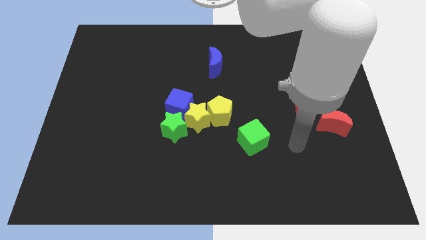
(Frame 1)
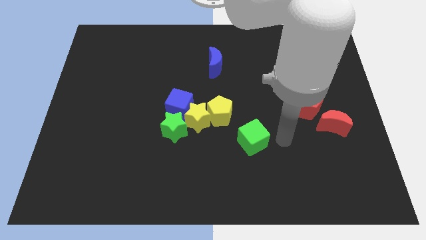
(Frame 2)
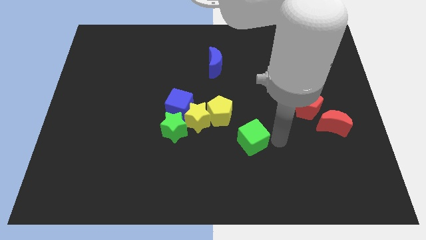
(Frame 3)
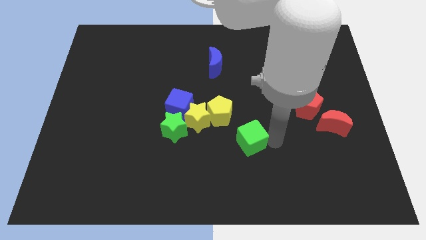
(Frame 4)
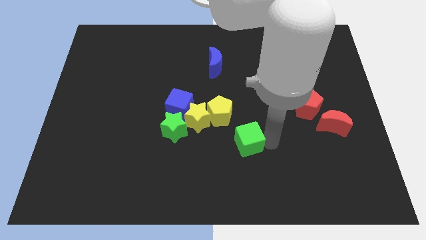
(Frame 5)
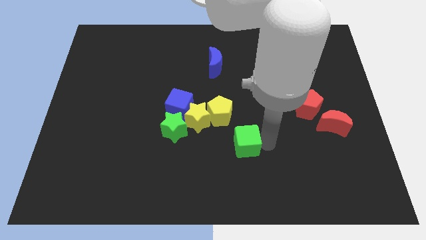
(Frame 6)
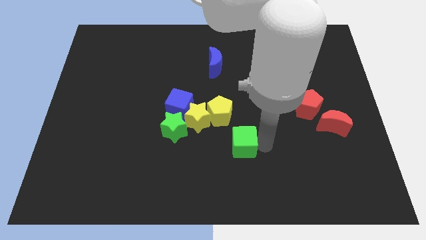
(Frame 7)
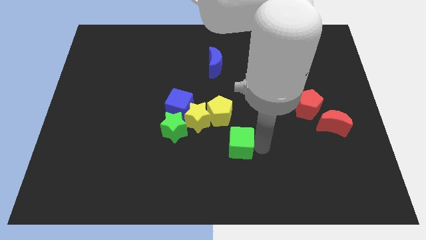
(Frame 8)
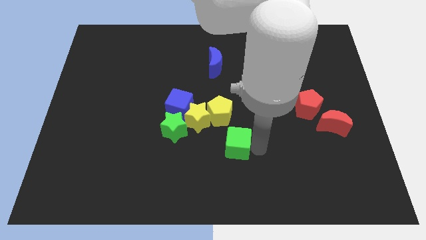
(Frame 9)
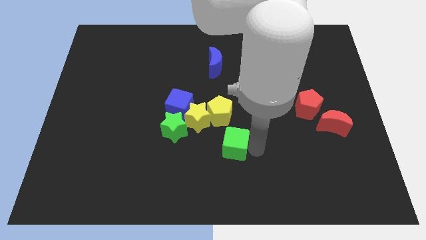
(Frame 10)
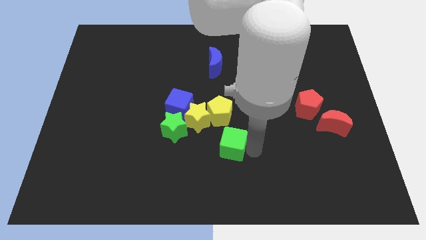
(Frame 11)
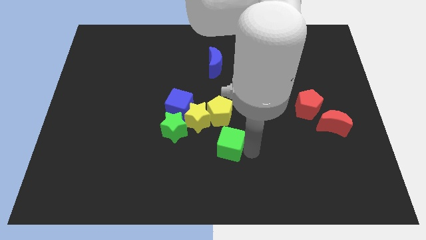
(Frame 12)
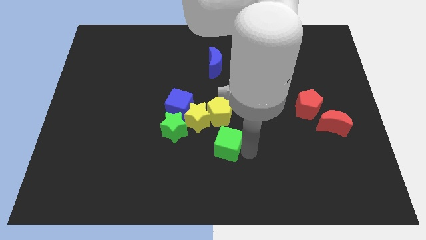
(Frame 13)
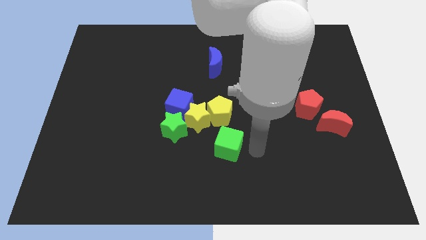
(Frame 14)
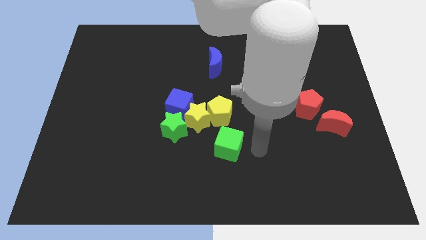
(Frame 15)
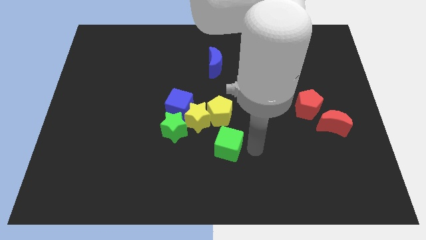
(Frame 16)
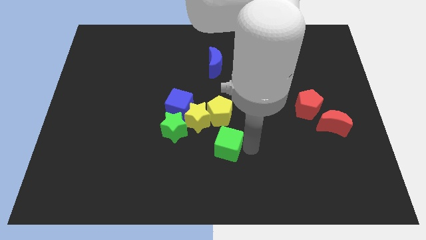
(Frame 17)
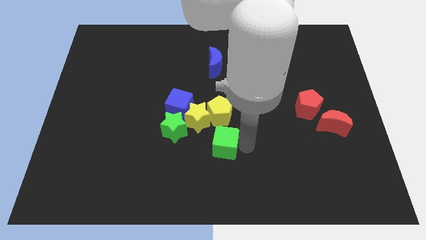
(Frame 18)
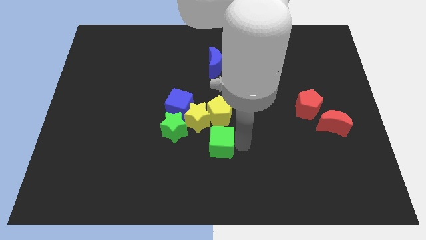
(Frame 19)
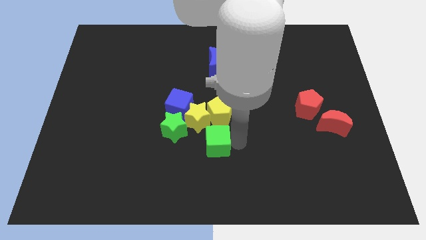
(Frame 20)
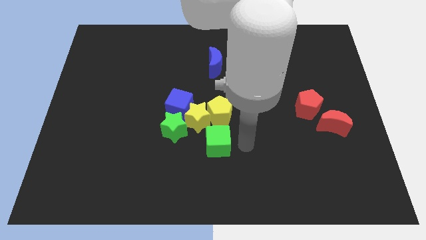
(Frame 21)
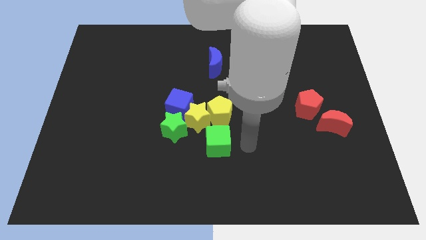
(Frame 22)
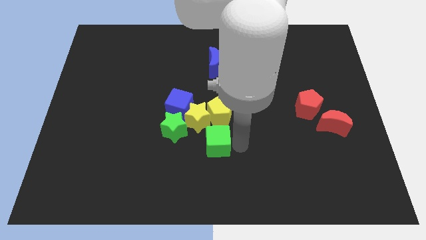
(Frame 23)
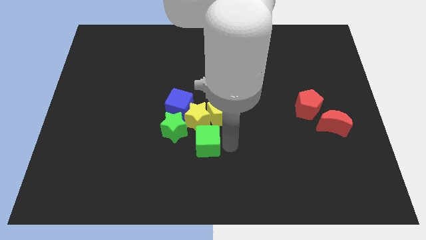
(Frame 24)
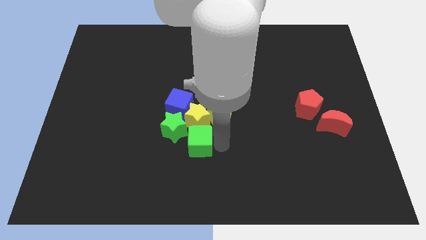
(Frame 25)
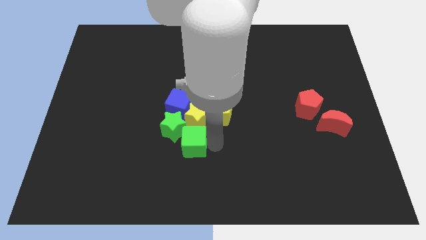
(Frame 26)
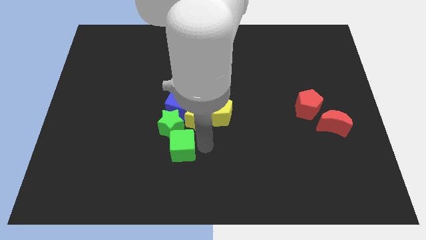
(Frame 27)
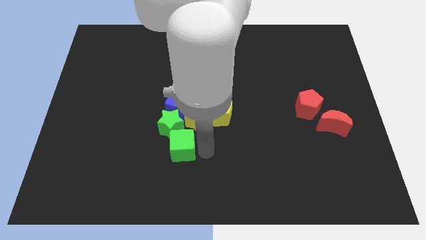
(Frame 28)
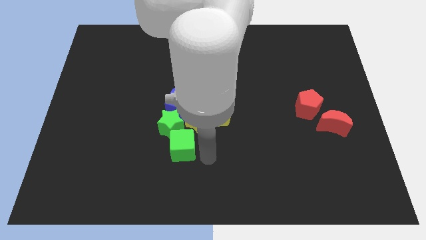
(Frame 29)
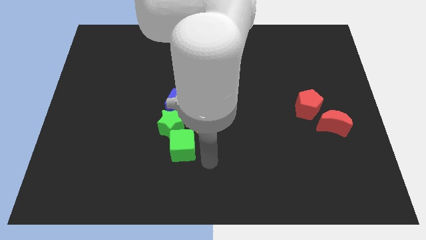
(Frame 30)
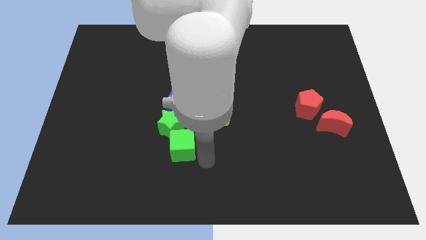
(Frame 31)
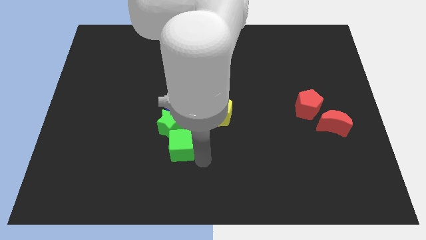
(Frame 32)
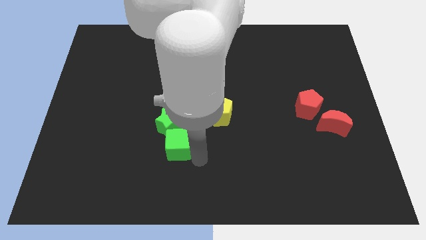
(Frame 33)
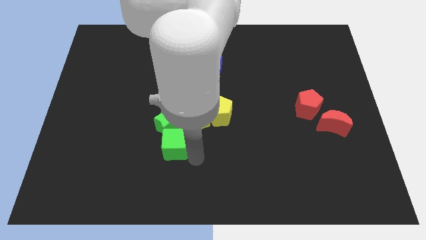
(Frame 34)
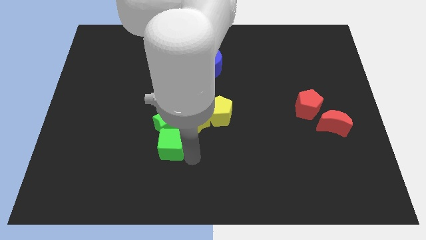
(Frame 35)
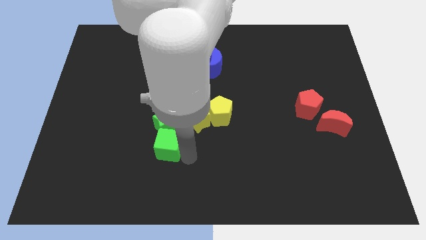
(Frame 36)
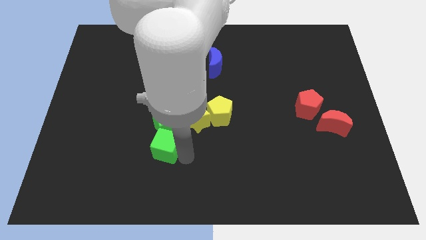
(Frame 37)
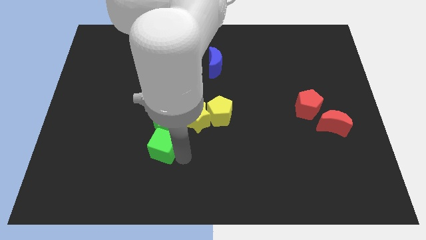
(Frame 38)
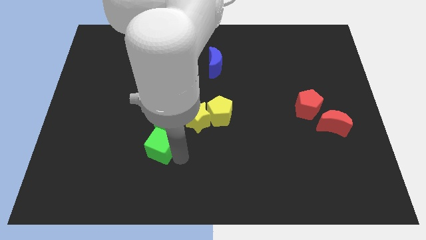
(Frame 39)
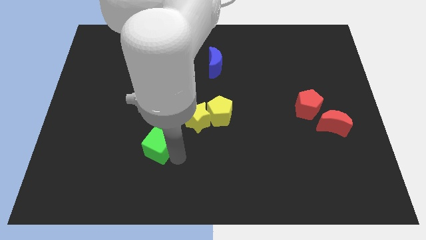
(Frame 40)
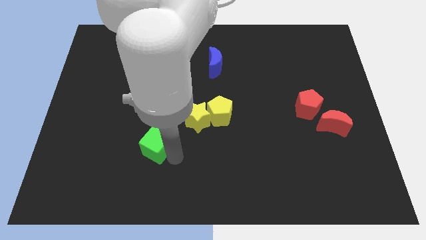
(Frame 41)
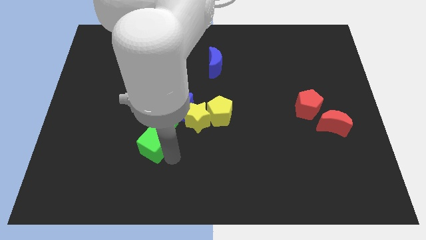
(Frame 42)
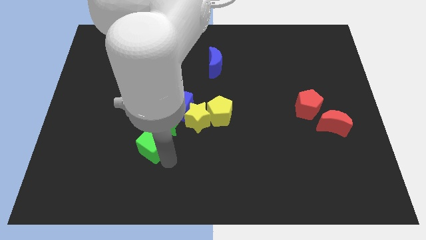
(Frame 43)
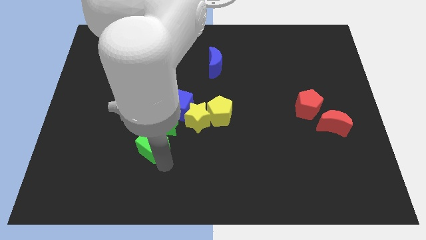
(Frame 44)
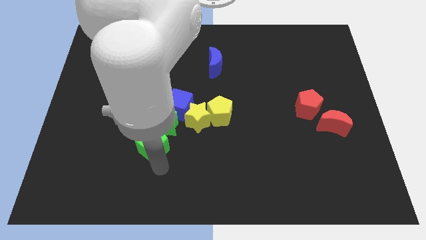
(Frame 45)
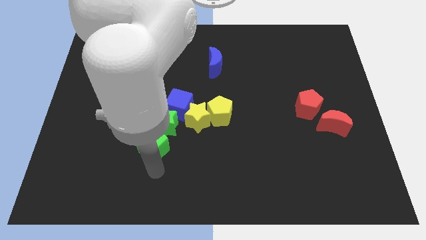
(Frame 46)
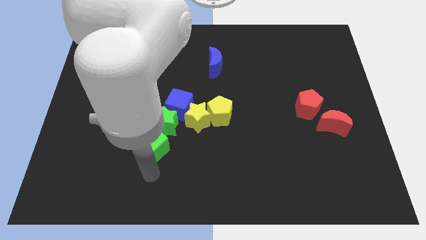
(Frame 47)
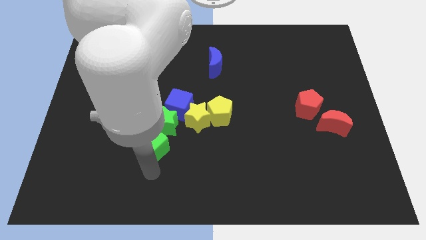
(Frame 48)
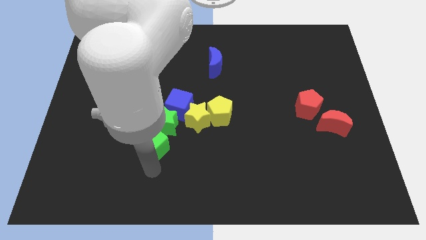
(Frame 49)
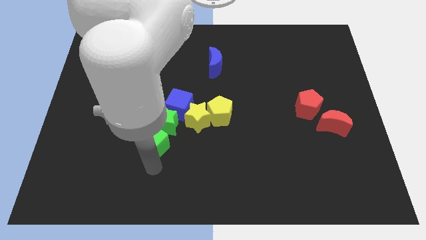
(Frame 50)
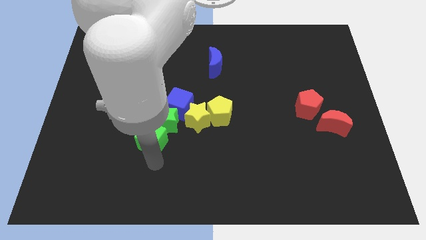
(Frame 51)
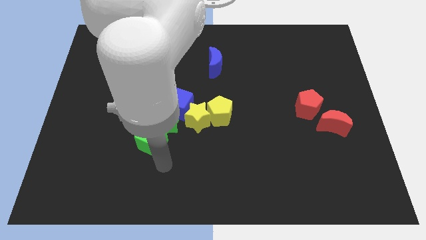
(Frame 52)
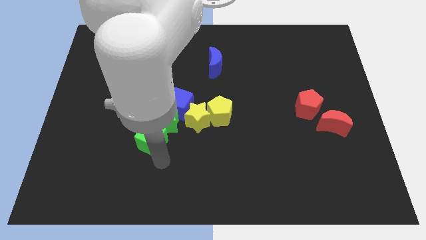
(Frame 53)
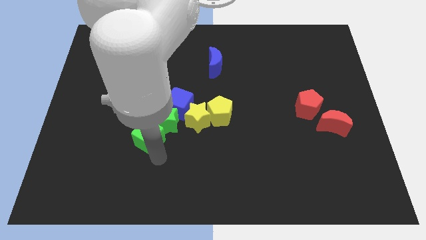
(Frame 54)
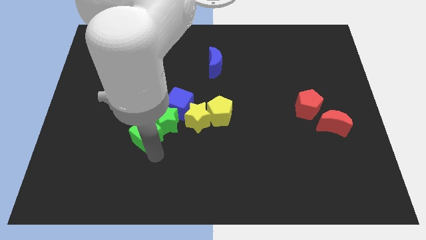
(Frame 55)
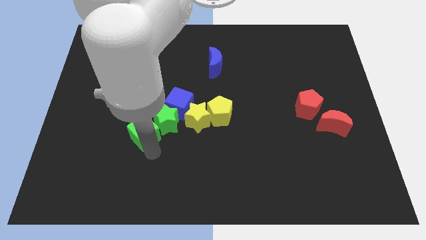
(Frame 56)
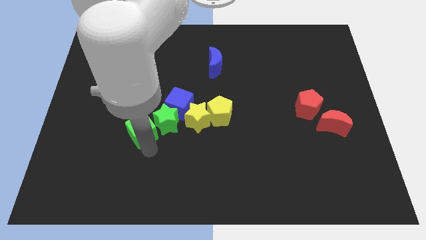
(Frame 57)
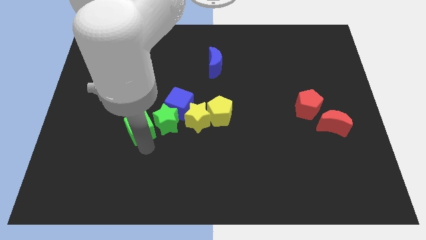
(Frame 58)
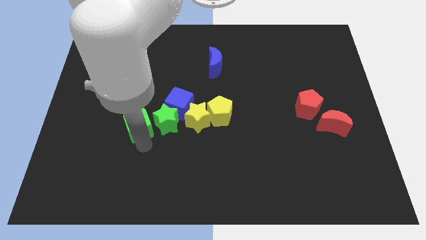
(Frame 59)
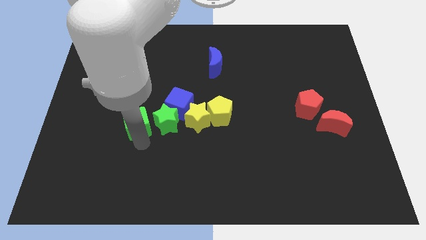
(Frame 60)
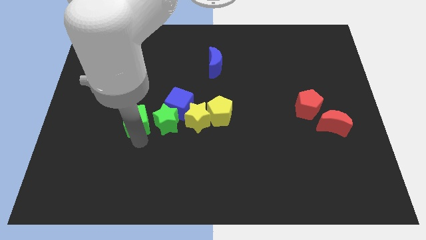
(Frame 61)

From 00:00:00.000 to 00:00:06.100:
put the green cube to the left of the blue cube

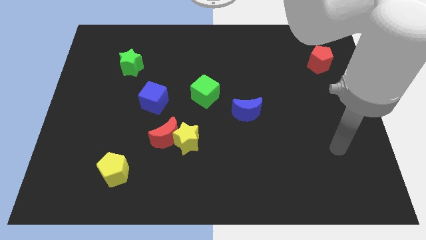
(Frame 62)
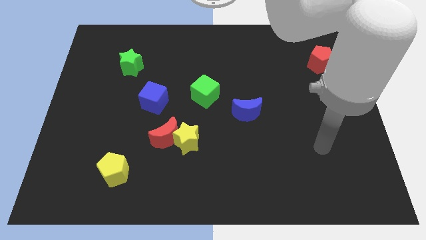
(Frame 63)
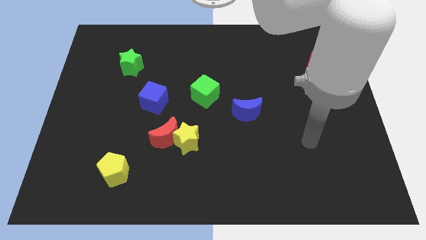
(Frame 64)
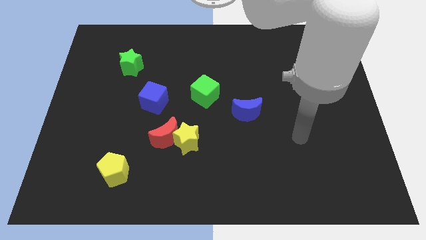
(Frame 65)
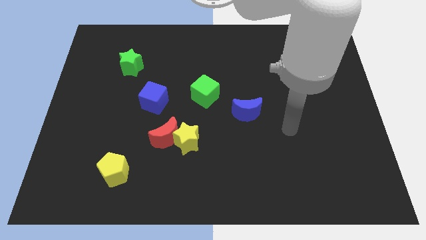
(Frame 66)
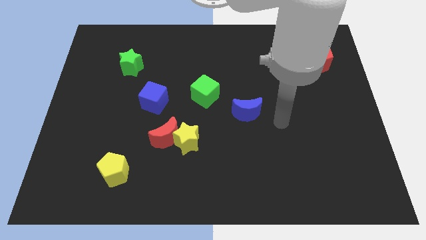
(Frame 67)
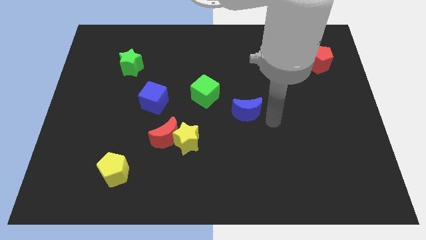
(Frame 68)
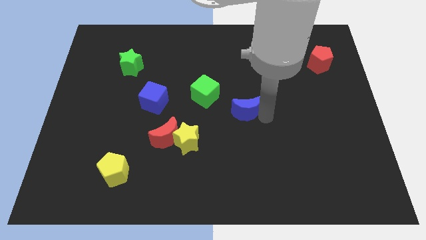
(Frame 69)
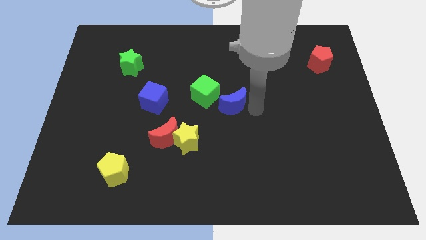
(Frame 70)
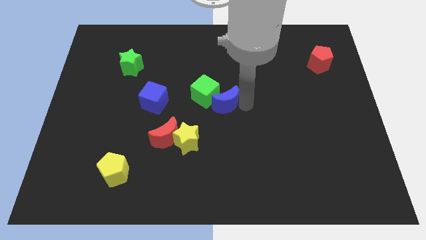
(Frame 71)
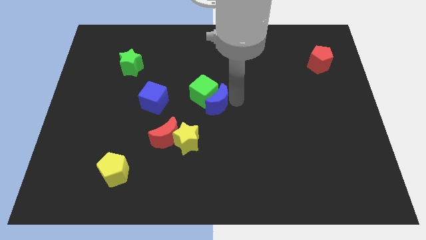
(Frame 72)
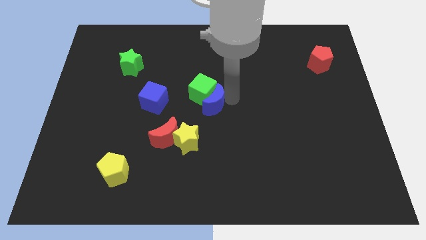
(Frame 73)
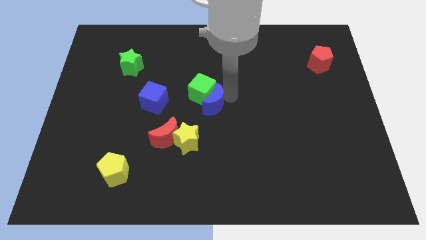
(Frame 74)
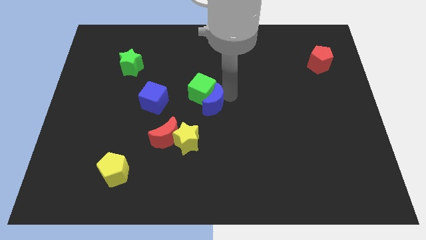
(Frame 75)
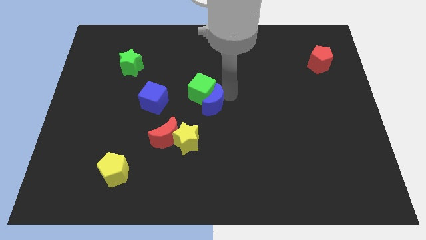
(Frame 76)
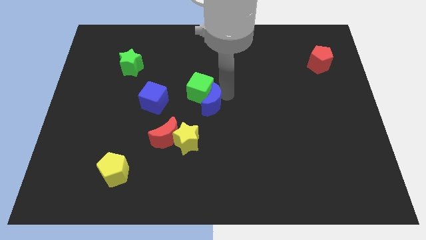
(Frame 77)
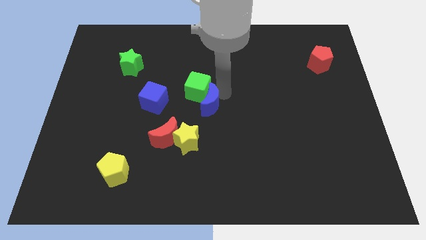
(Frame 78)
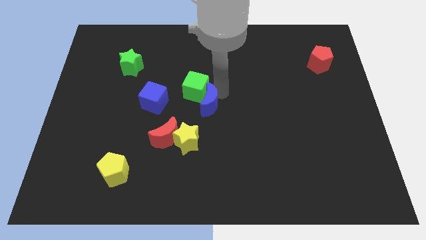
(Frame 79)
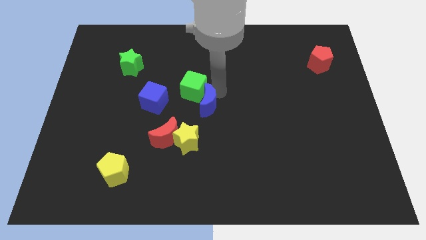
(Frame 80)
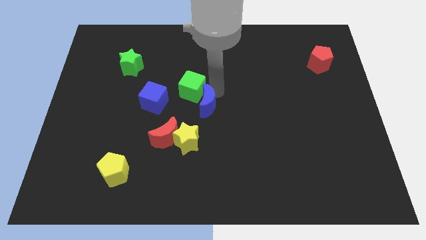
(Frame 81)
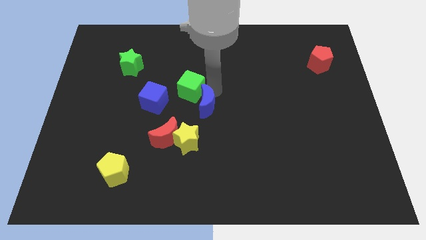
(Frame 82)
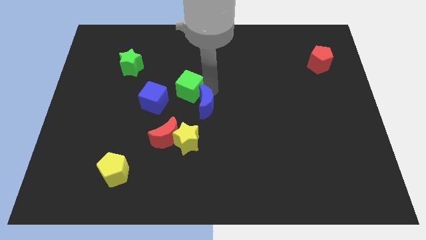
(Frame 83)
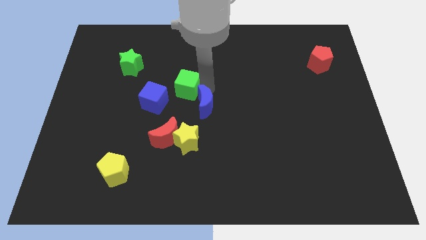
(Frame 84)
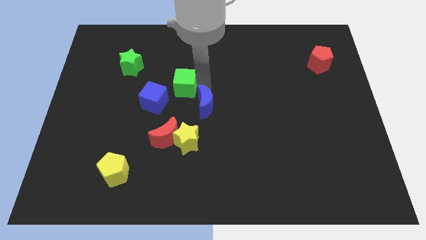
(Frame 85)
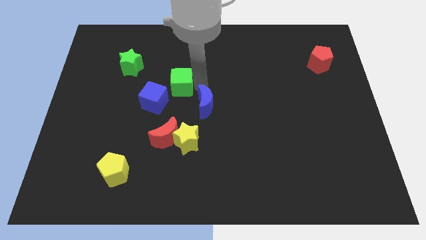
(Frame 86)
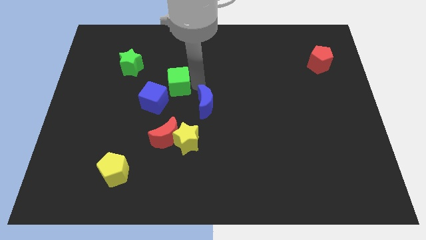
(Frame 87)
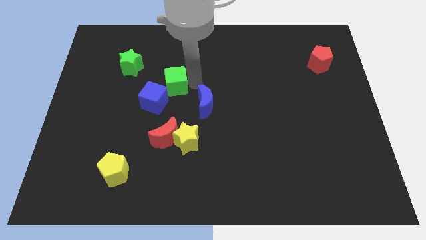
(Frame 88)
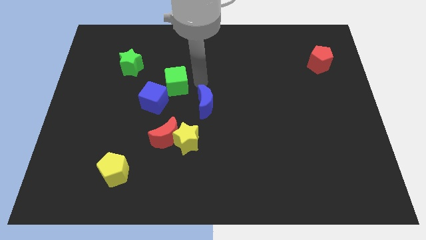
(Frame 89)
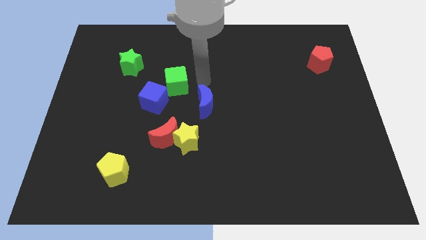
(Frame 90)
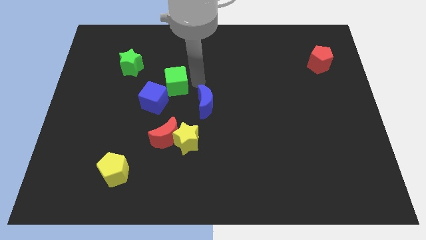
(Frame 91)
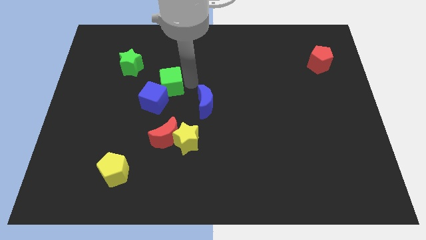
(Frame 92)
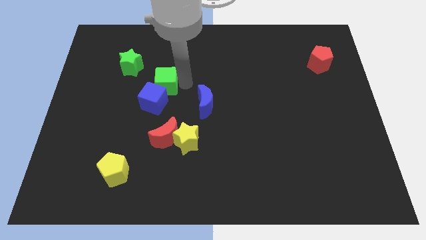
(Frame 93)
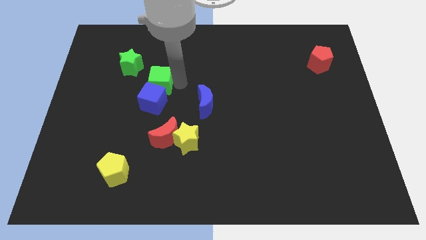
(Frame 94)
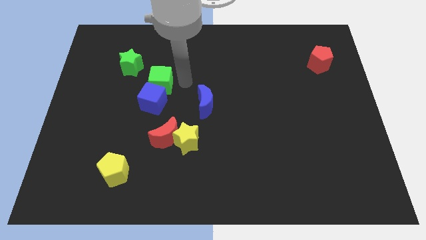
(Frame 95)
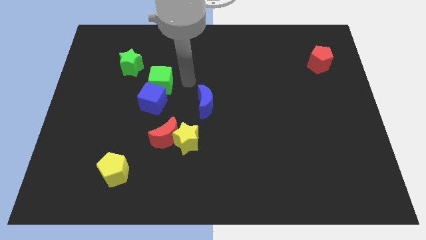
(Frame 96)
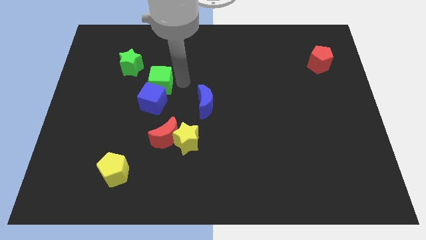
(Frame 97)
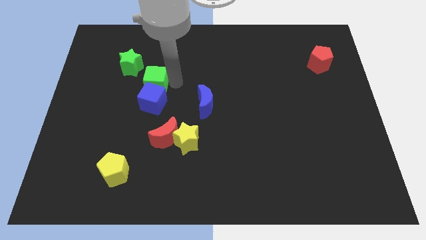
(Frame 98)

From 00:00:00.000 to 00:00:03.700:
put the green cube to the top left of the blue cube
